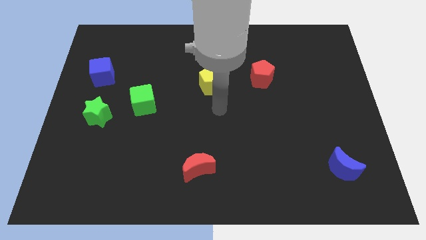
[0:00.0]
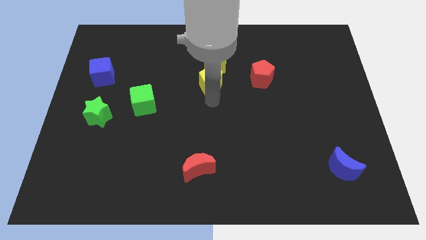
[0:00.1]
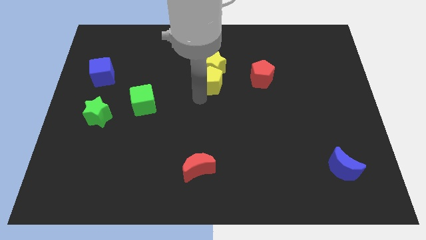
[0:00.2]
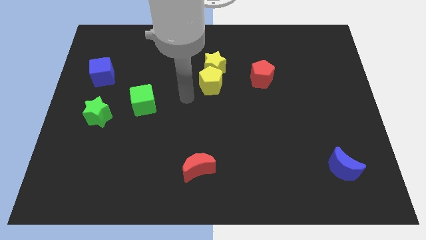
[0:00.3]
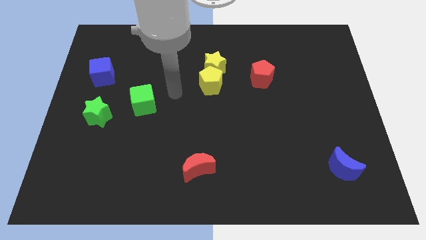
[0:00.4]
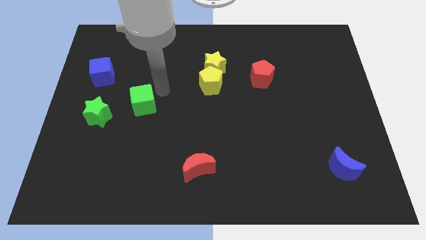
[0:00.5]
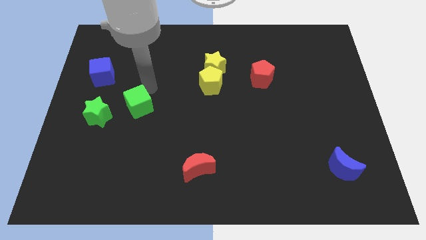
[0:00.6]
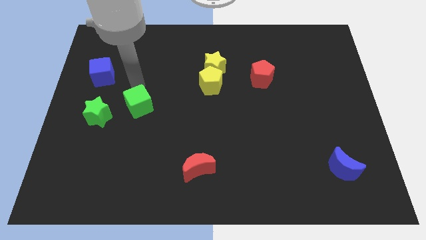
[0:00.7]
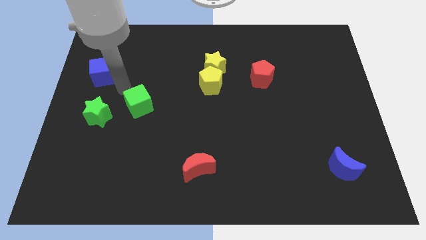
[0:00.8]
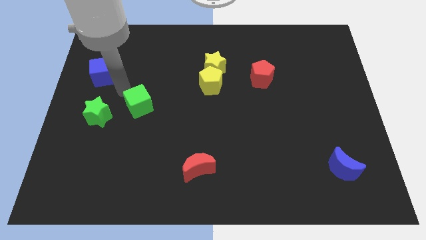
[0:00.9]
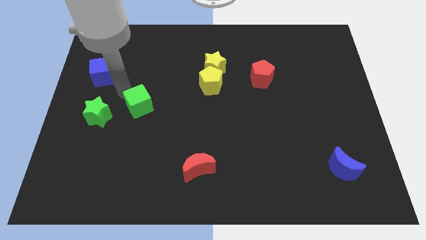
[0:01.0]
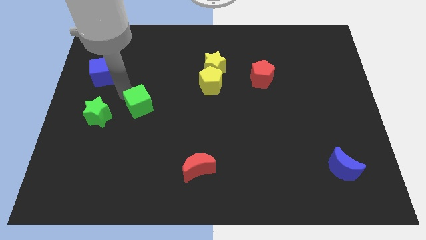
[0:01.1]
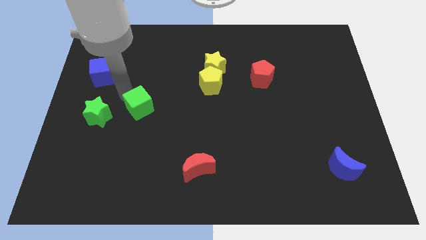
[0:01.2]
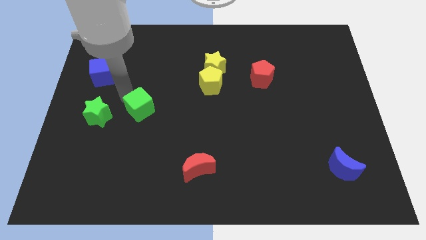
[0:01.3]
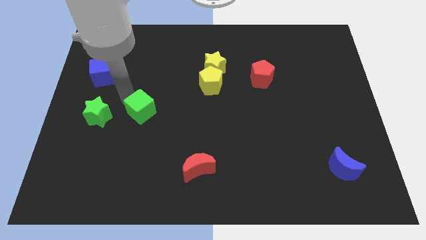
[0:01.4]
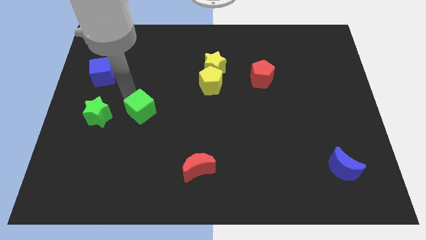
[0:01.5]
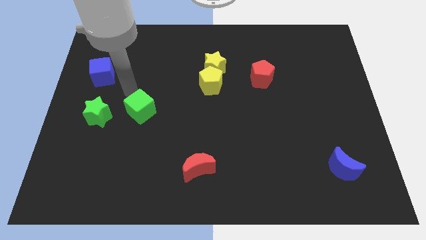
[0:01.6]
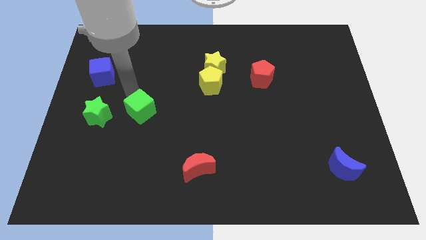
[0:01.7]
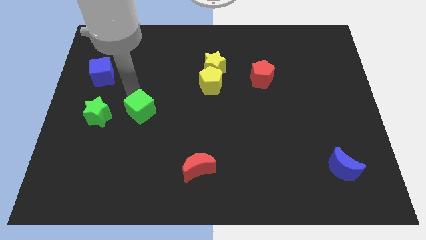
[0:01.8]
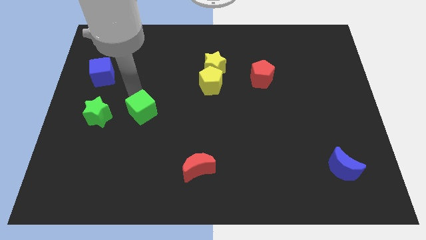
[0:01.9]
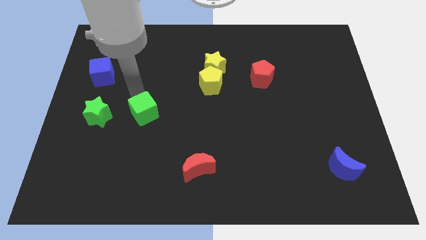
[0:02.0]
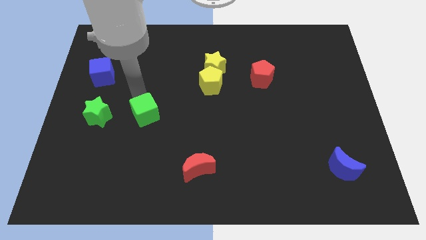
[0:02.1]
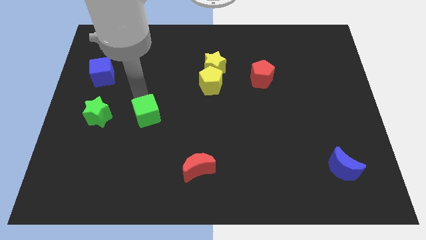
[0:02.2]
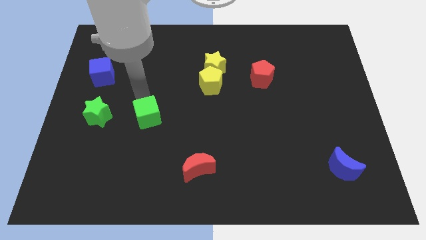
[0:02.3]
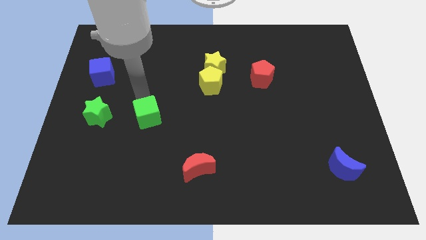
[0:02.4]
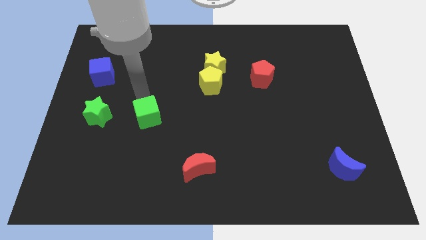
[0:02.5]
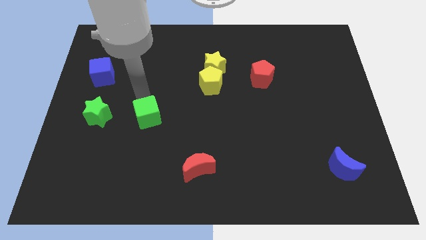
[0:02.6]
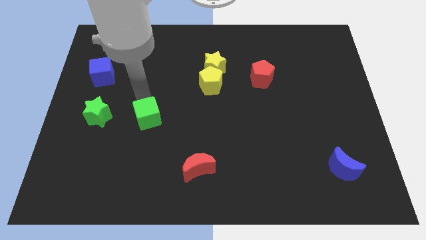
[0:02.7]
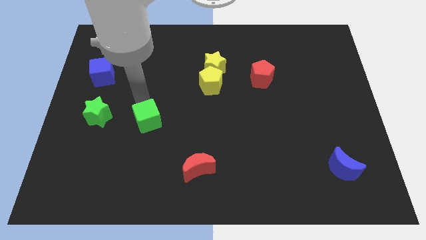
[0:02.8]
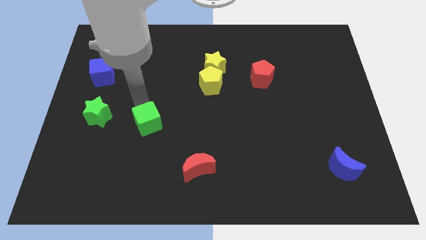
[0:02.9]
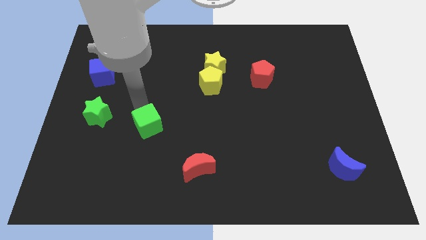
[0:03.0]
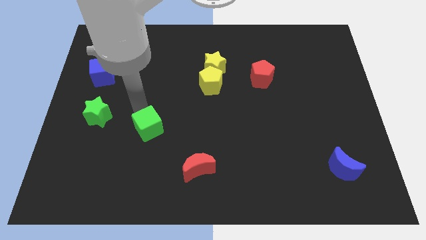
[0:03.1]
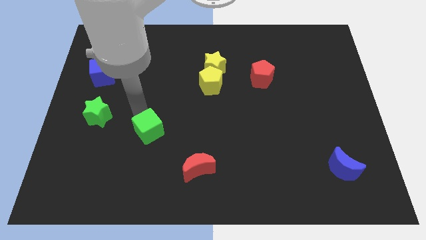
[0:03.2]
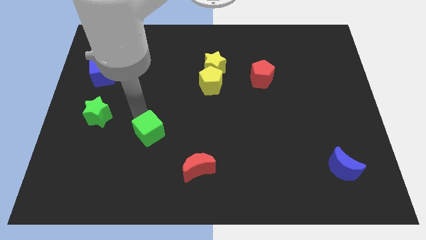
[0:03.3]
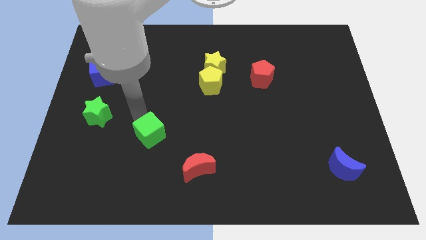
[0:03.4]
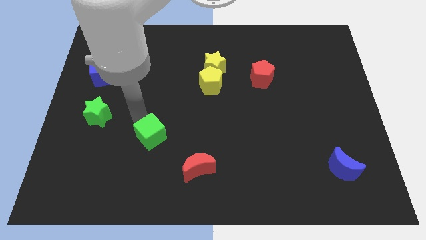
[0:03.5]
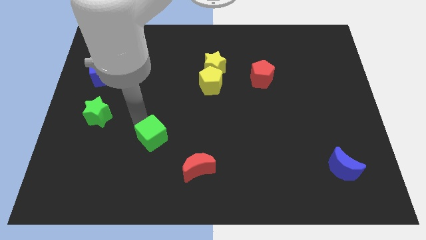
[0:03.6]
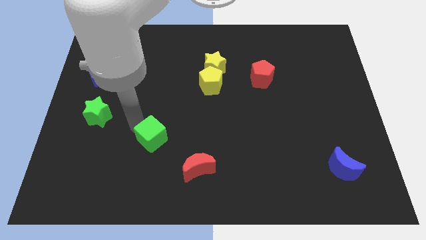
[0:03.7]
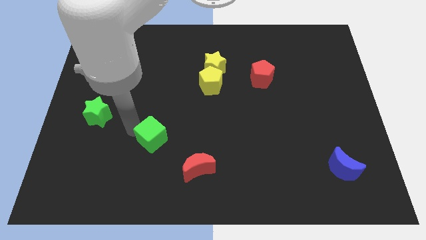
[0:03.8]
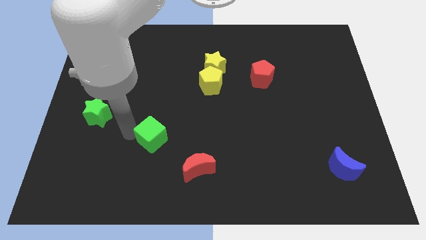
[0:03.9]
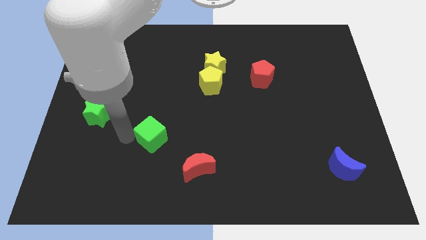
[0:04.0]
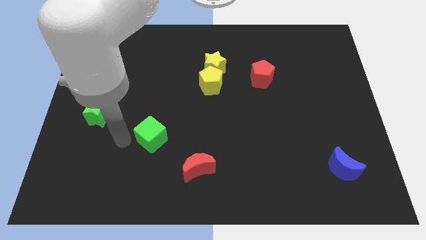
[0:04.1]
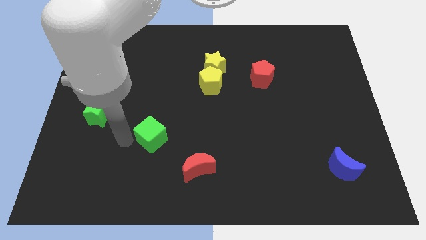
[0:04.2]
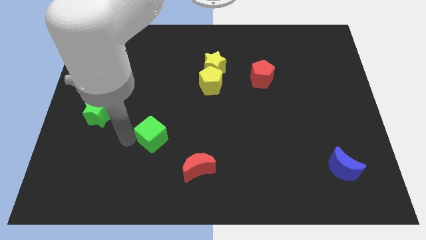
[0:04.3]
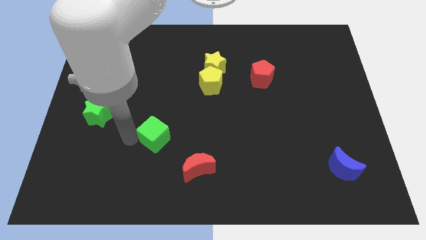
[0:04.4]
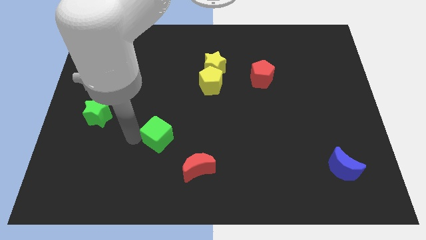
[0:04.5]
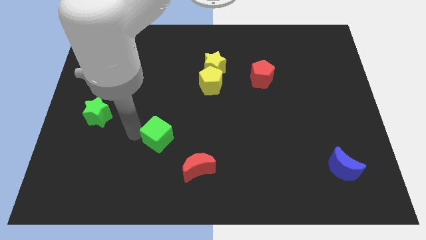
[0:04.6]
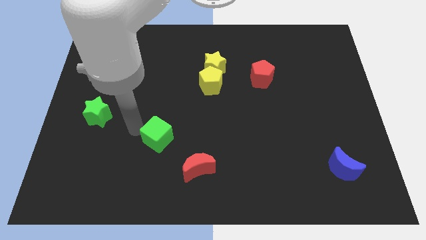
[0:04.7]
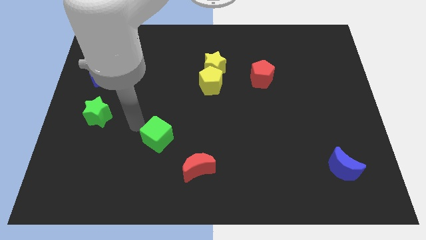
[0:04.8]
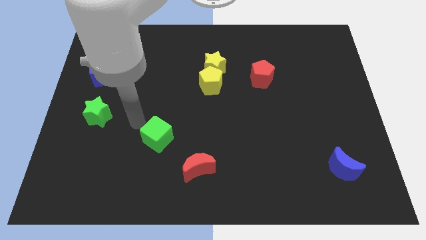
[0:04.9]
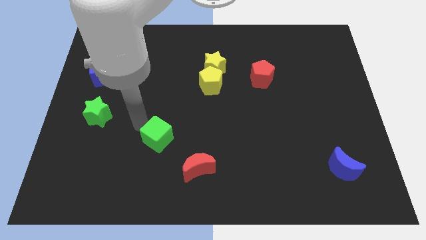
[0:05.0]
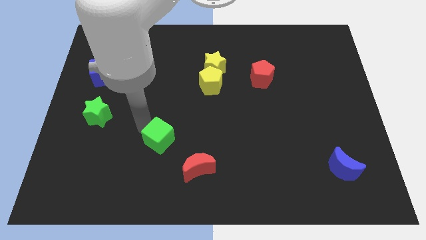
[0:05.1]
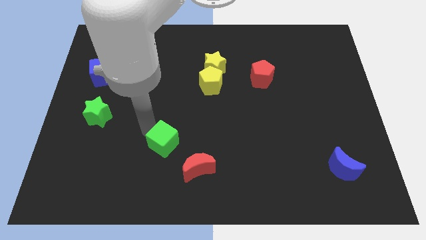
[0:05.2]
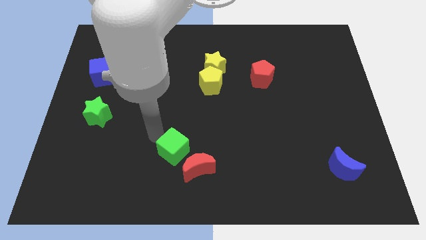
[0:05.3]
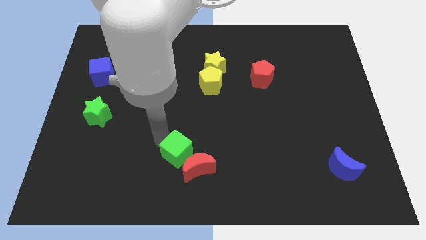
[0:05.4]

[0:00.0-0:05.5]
push the green cube towards the red moon

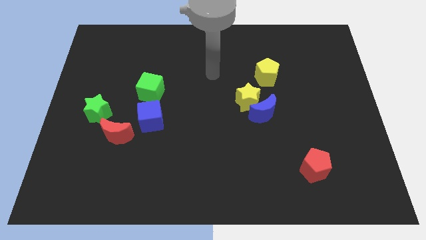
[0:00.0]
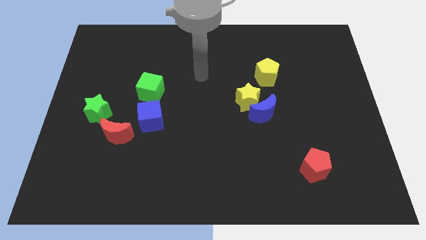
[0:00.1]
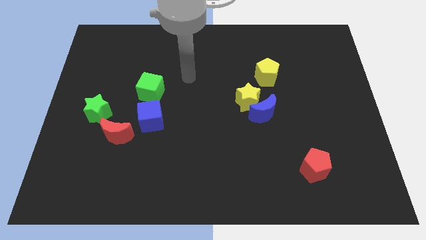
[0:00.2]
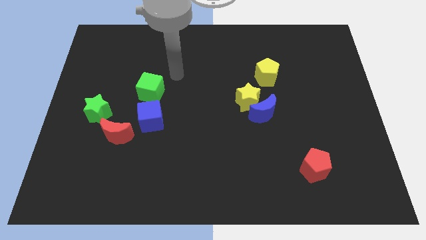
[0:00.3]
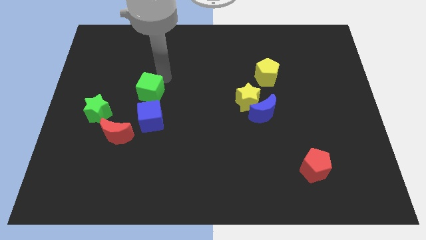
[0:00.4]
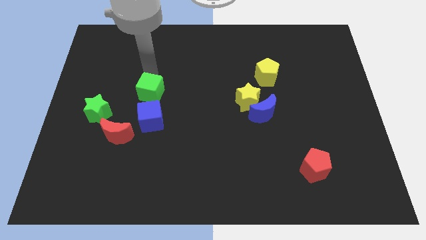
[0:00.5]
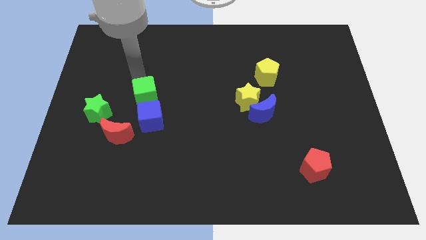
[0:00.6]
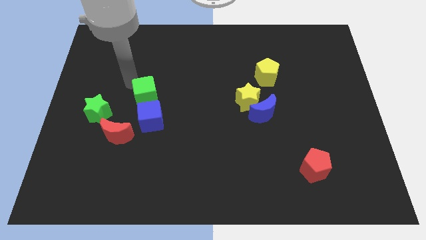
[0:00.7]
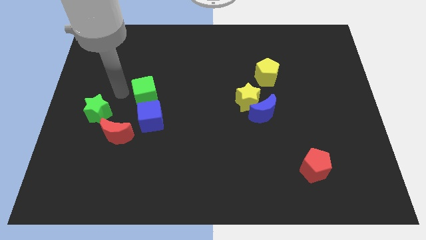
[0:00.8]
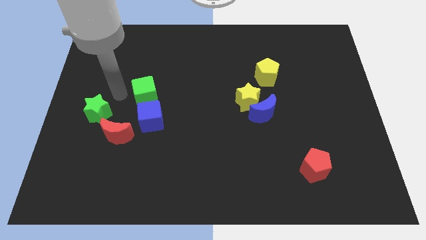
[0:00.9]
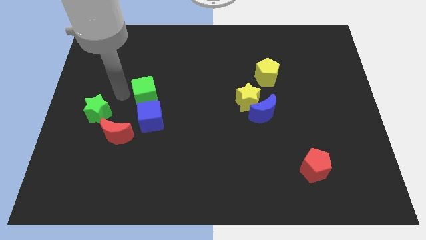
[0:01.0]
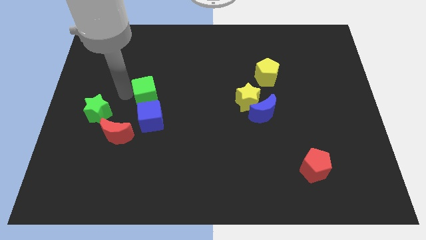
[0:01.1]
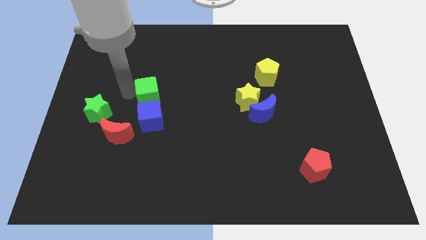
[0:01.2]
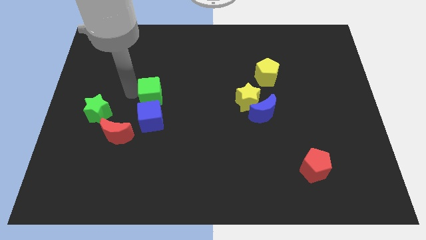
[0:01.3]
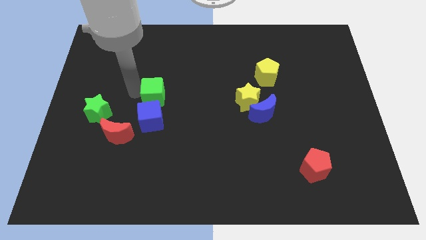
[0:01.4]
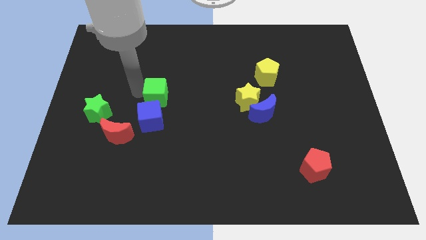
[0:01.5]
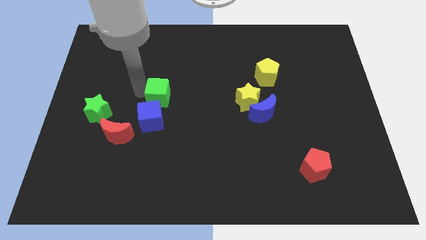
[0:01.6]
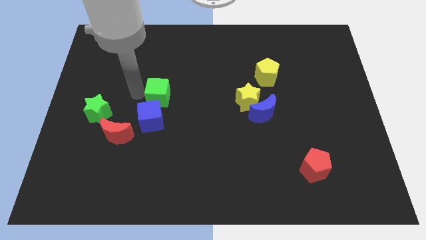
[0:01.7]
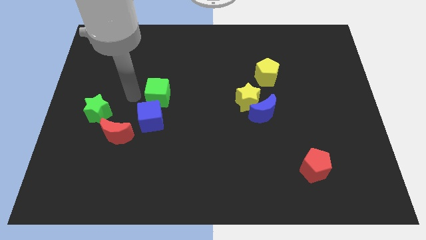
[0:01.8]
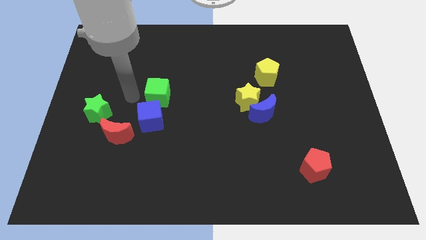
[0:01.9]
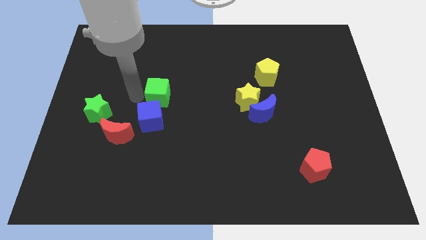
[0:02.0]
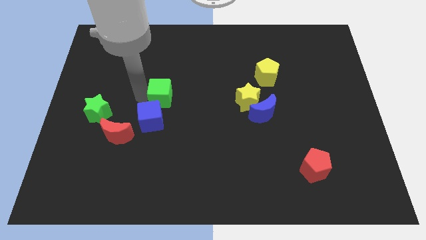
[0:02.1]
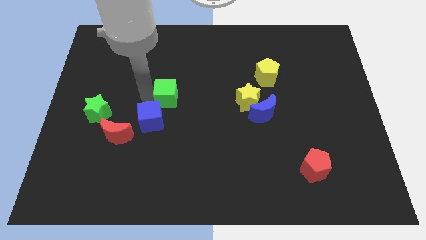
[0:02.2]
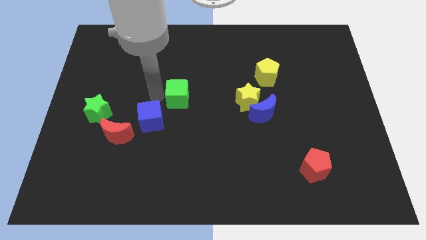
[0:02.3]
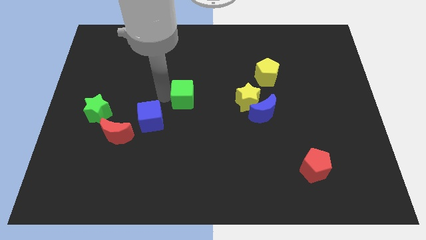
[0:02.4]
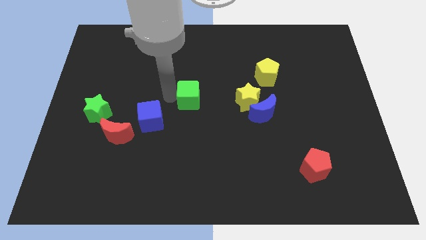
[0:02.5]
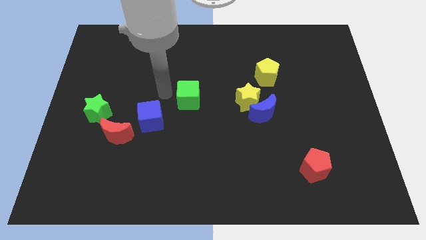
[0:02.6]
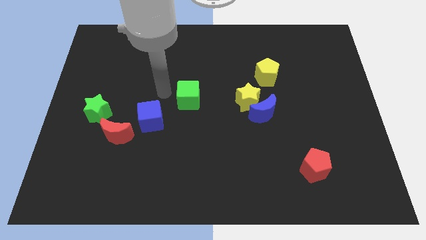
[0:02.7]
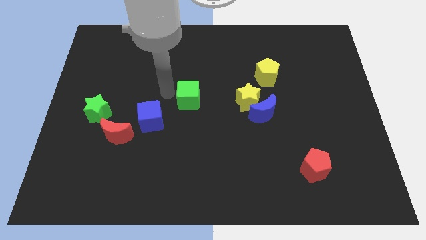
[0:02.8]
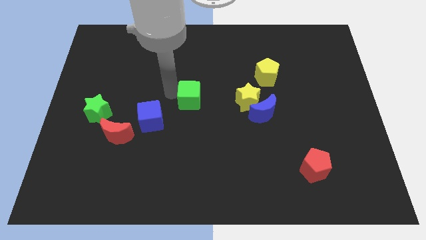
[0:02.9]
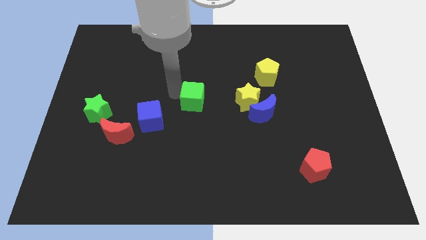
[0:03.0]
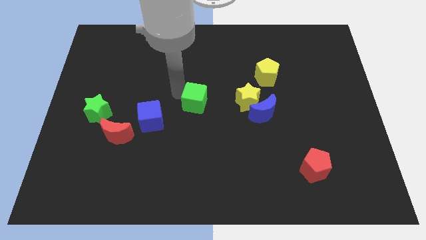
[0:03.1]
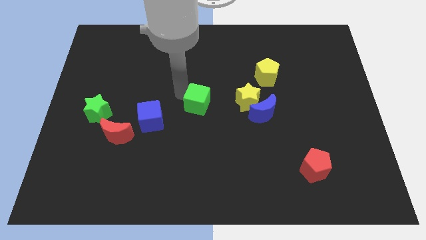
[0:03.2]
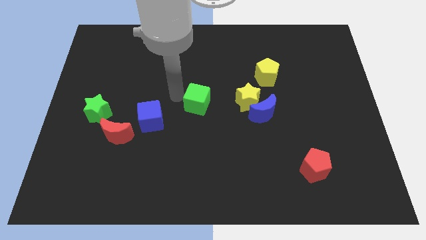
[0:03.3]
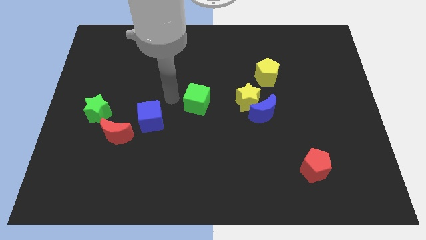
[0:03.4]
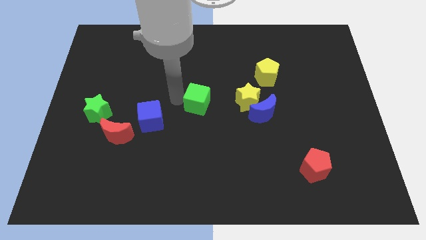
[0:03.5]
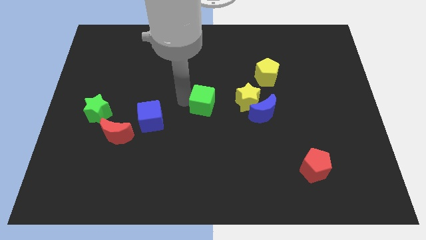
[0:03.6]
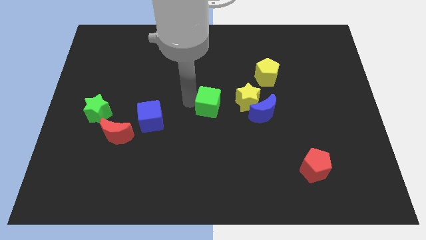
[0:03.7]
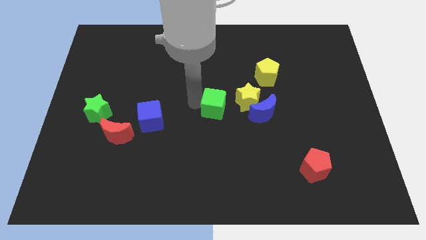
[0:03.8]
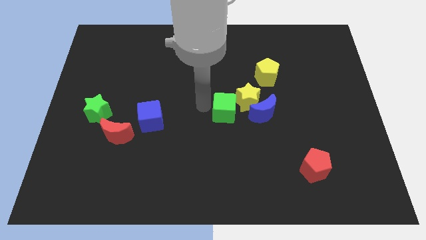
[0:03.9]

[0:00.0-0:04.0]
put the green cube towards the yellow star
